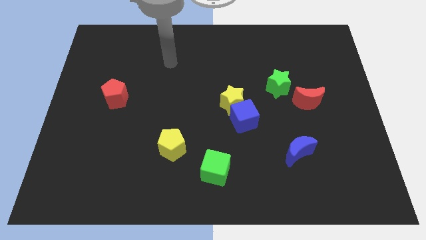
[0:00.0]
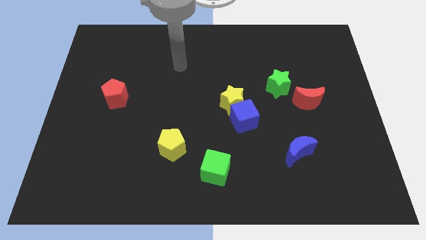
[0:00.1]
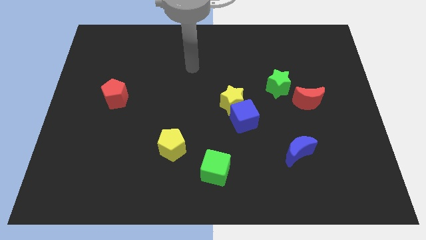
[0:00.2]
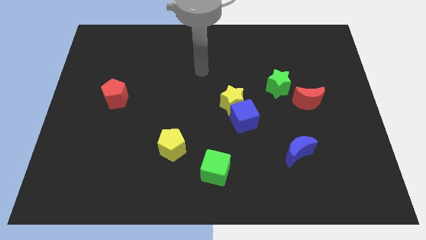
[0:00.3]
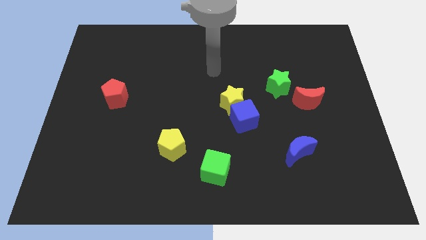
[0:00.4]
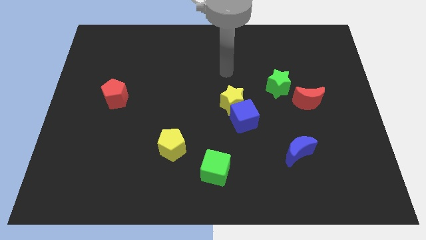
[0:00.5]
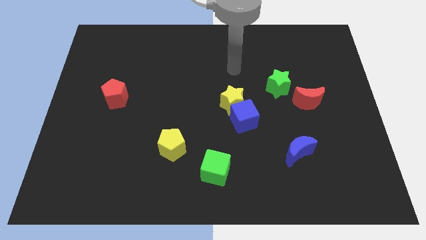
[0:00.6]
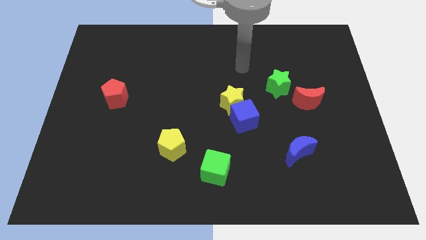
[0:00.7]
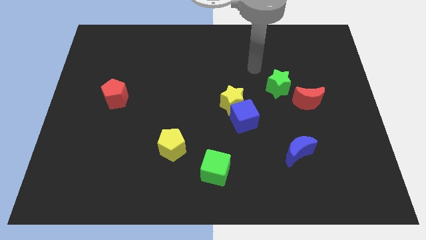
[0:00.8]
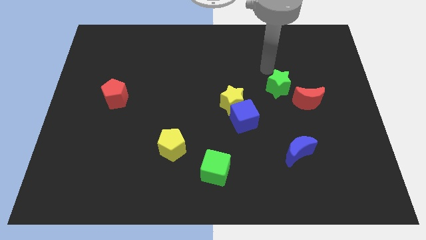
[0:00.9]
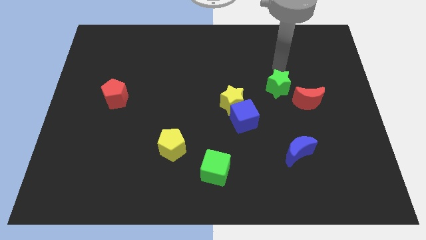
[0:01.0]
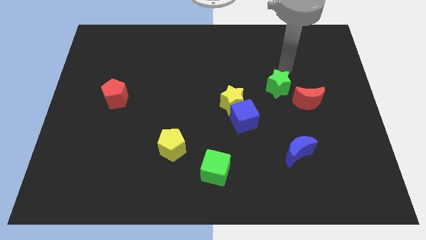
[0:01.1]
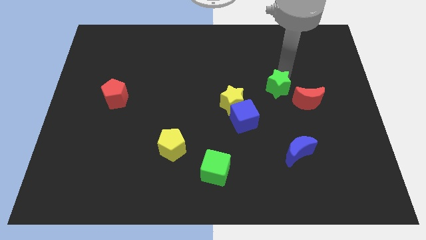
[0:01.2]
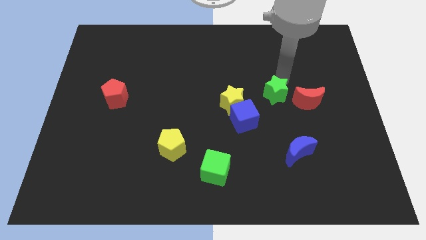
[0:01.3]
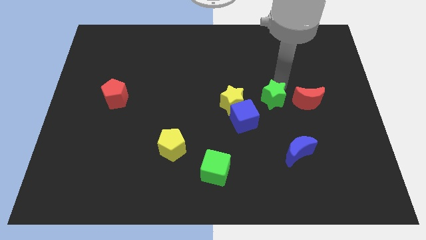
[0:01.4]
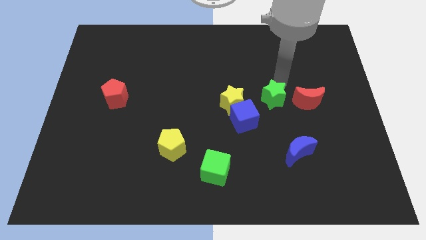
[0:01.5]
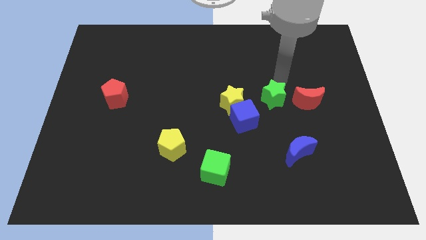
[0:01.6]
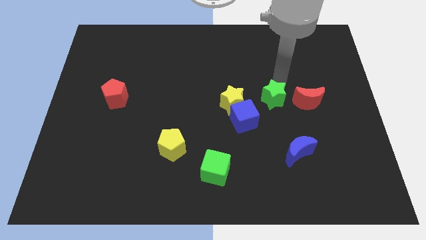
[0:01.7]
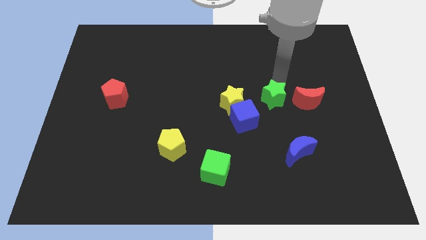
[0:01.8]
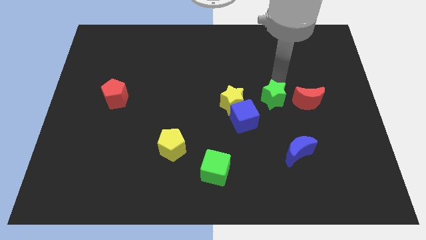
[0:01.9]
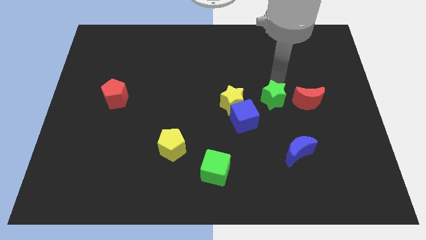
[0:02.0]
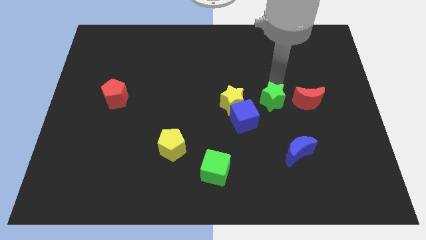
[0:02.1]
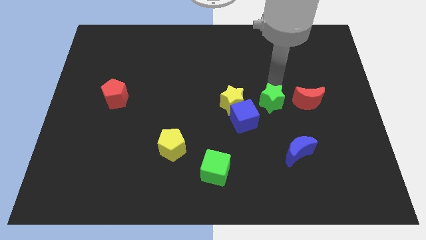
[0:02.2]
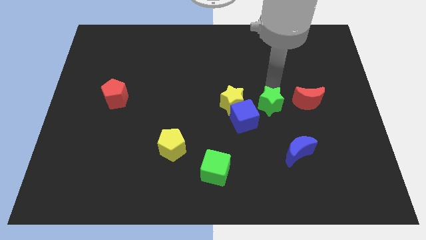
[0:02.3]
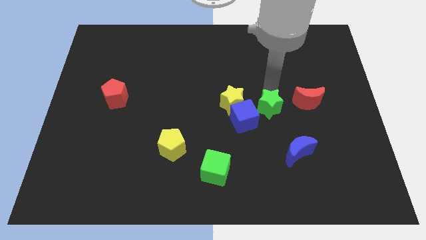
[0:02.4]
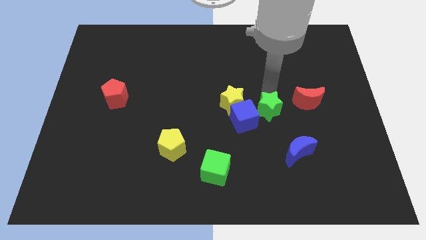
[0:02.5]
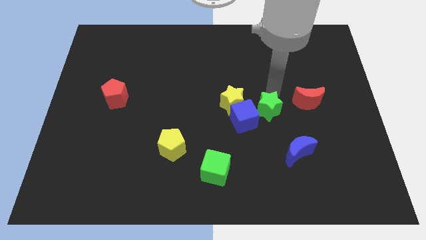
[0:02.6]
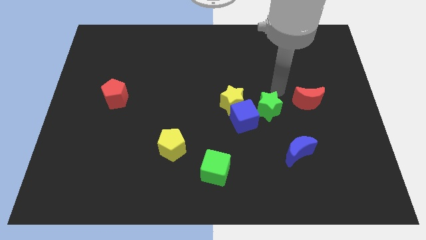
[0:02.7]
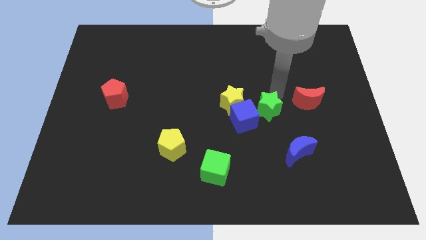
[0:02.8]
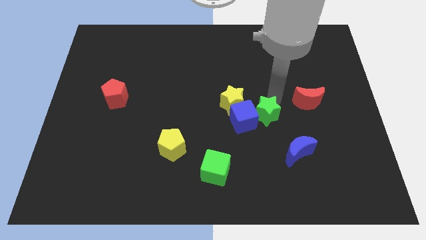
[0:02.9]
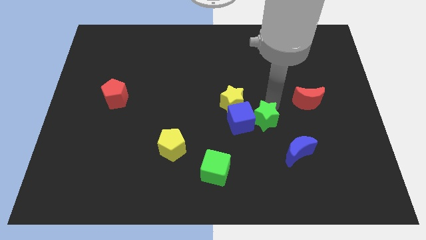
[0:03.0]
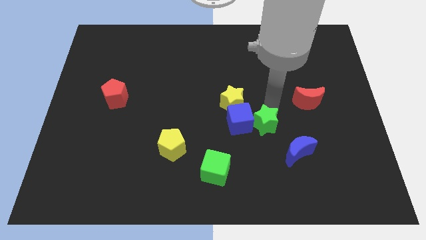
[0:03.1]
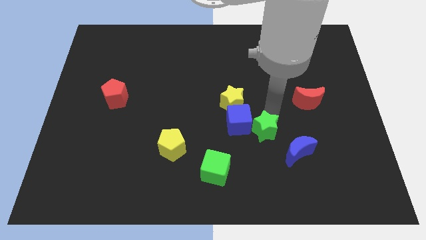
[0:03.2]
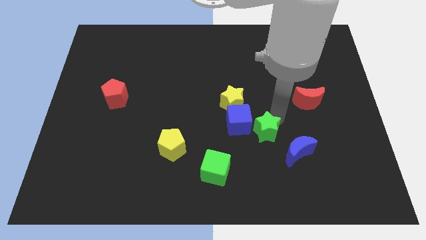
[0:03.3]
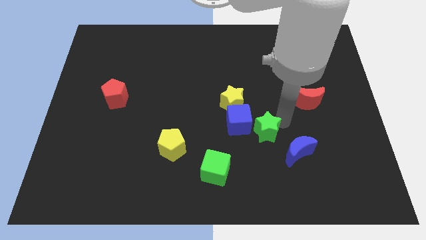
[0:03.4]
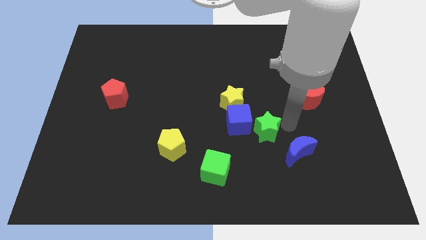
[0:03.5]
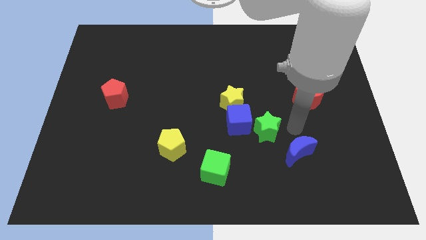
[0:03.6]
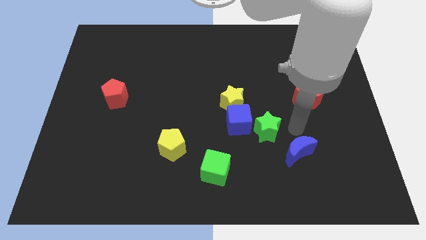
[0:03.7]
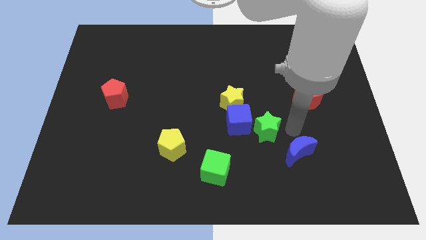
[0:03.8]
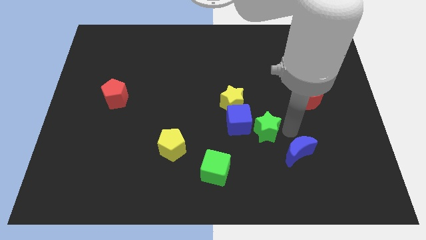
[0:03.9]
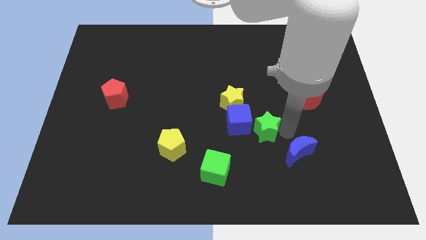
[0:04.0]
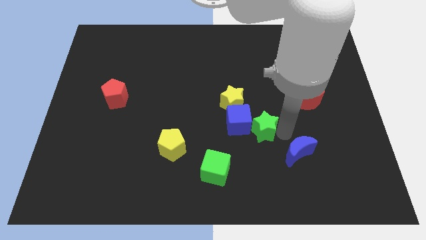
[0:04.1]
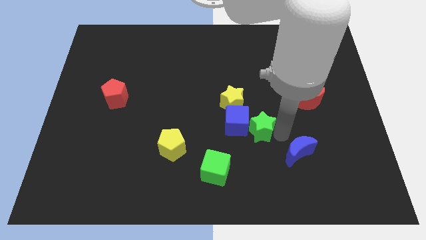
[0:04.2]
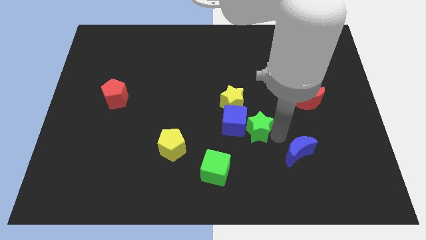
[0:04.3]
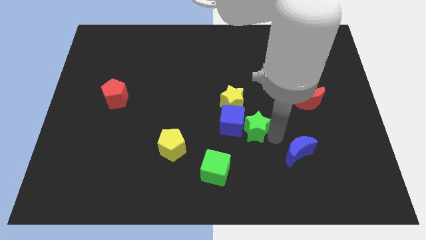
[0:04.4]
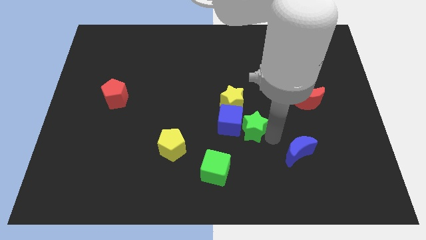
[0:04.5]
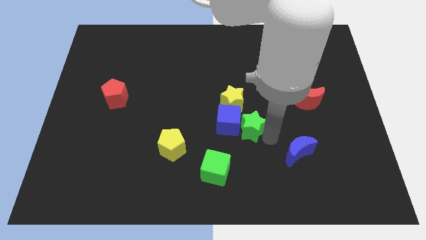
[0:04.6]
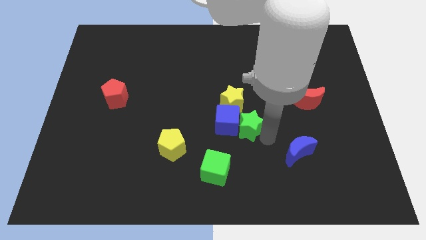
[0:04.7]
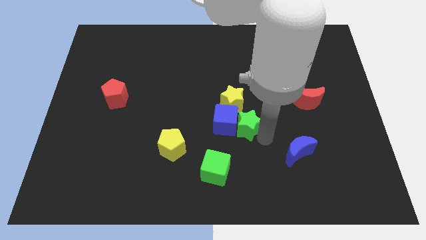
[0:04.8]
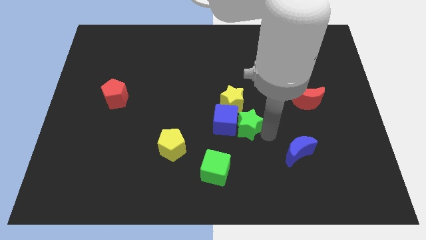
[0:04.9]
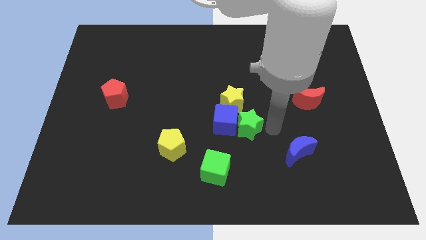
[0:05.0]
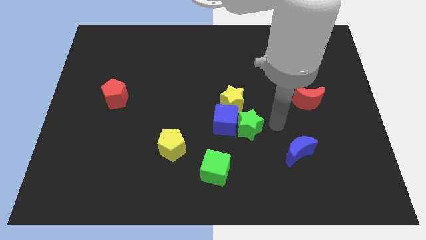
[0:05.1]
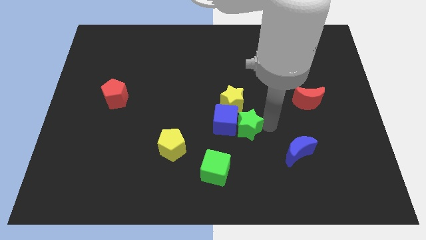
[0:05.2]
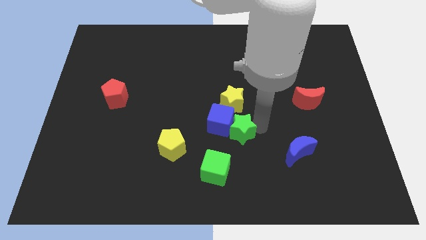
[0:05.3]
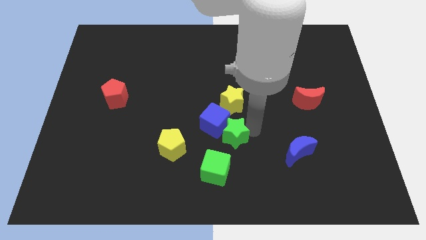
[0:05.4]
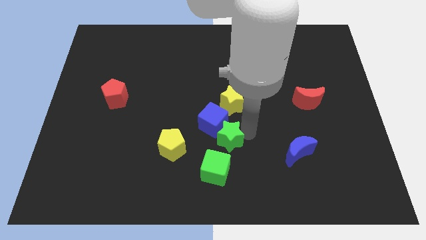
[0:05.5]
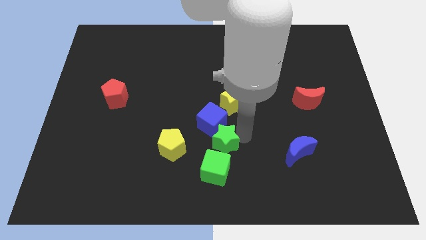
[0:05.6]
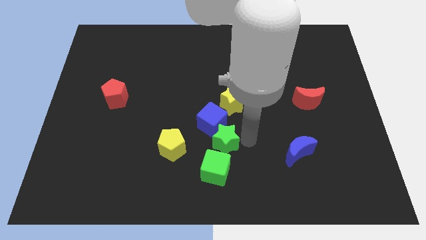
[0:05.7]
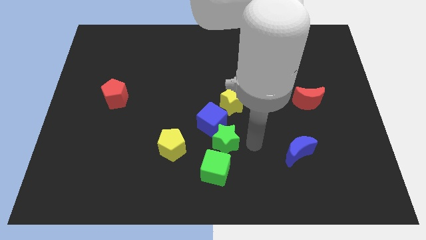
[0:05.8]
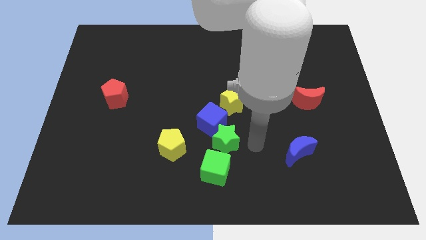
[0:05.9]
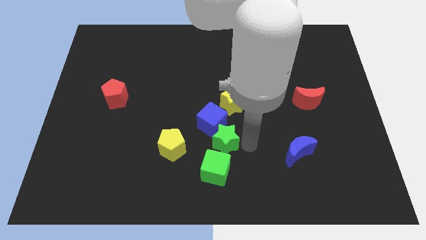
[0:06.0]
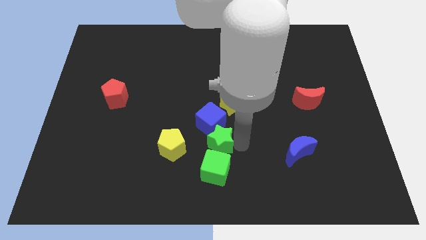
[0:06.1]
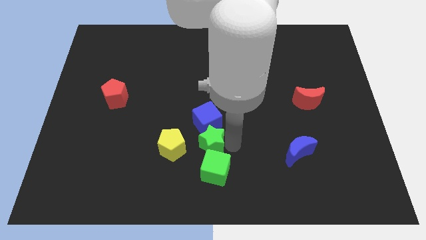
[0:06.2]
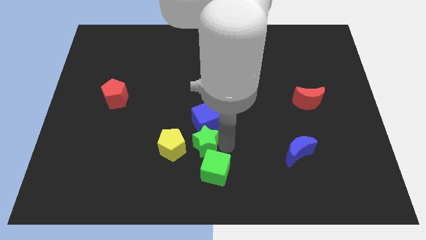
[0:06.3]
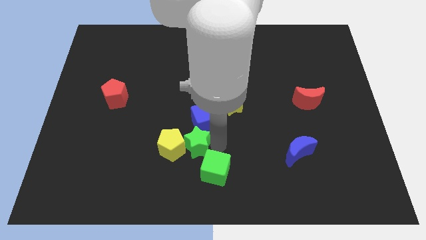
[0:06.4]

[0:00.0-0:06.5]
slide the green star close to the yellow pentagon

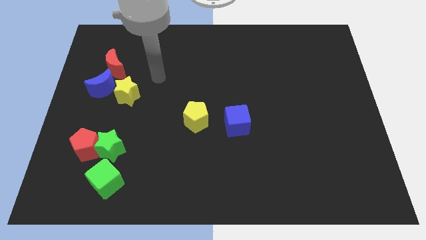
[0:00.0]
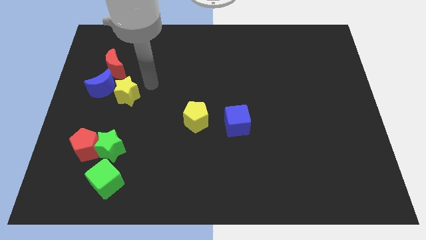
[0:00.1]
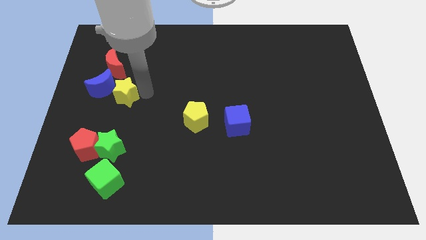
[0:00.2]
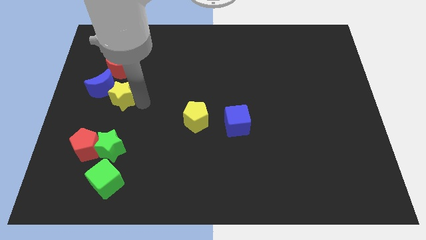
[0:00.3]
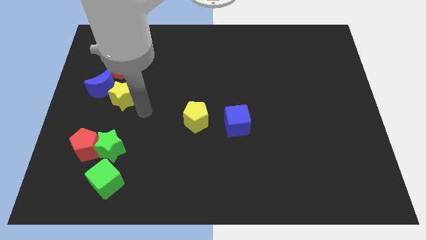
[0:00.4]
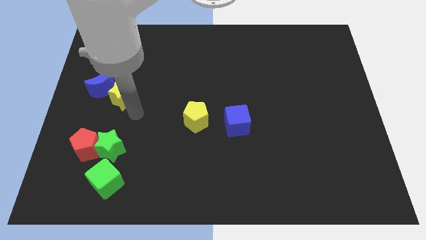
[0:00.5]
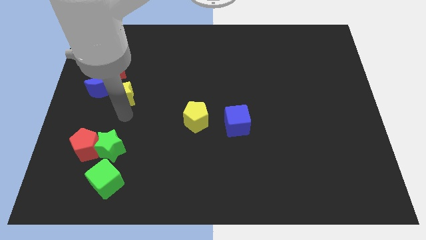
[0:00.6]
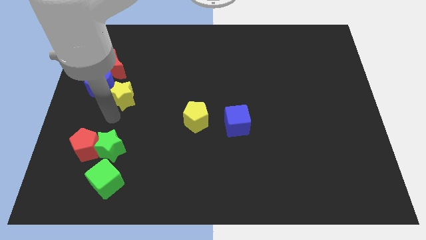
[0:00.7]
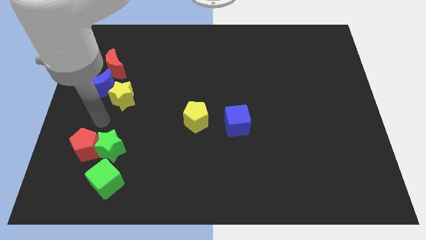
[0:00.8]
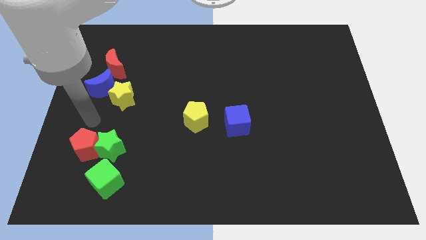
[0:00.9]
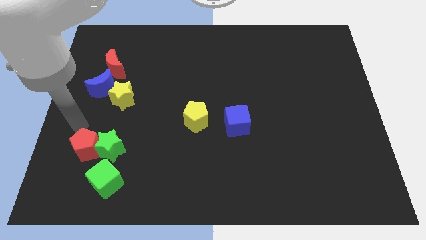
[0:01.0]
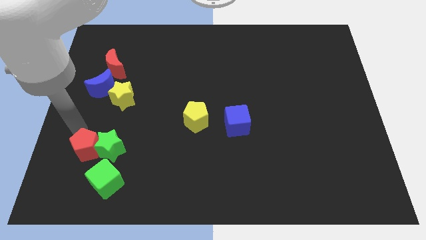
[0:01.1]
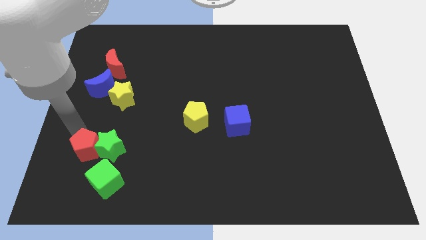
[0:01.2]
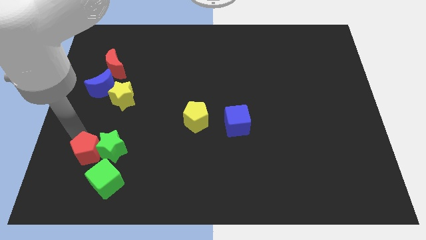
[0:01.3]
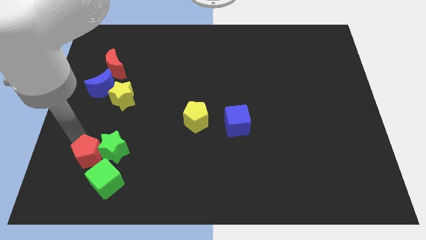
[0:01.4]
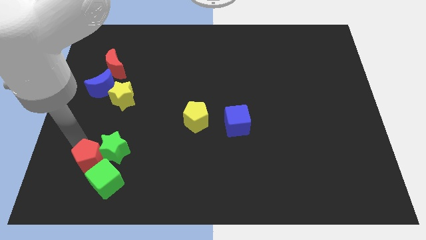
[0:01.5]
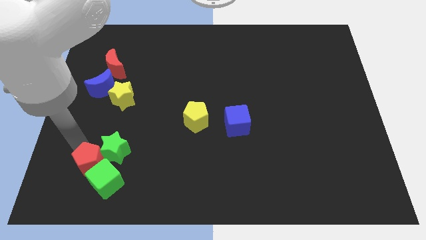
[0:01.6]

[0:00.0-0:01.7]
move the red pentagon to the green cube

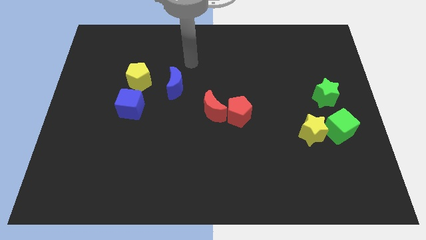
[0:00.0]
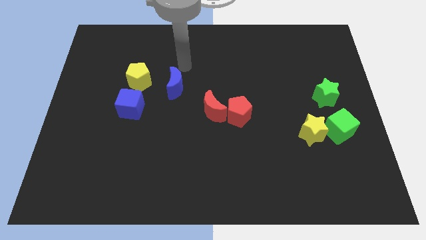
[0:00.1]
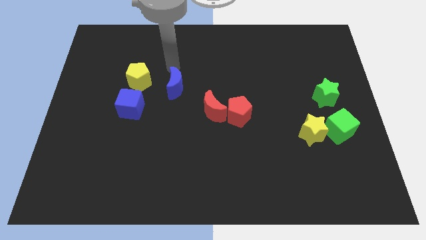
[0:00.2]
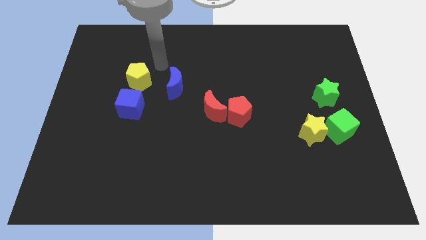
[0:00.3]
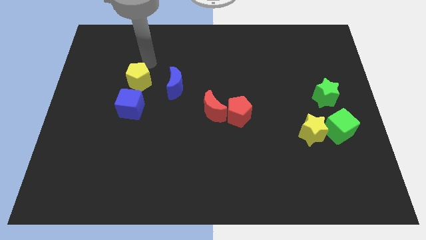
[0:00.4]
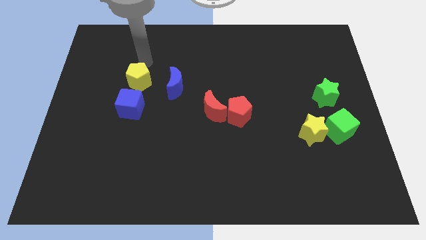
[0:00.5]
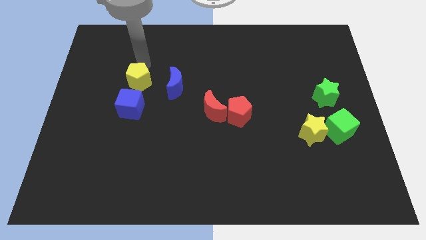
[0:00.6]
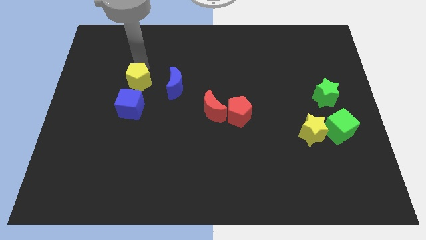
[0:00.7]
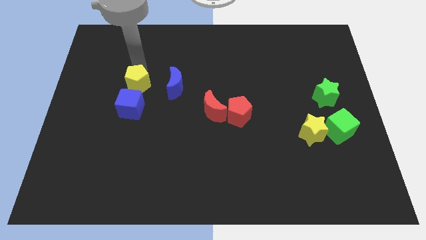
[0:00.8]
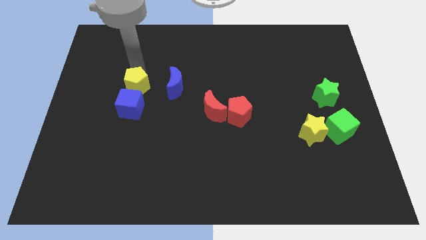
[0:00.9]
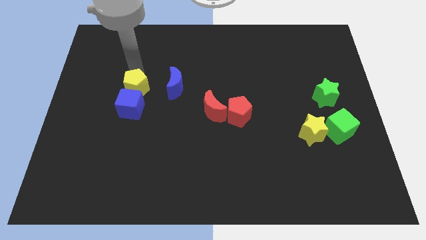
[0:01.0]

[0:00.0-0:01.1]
put the yellow pentagon close to the blue cube
